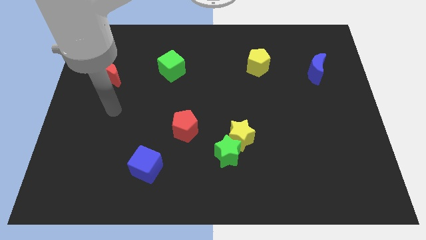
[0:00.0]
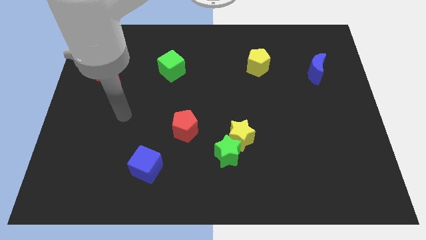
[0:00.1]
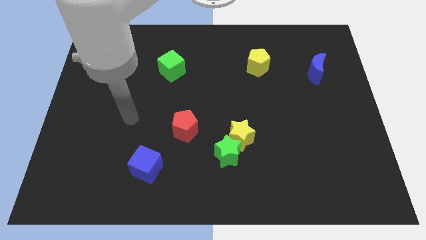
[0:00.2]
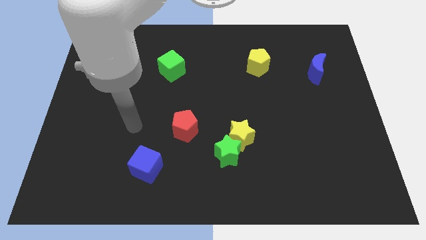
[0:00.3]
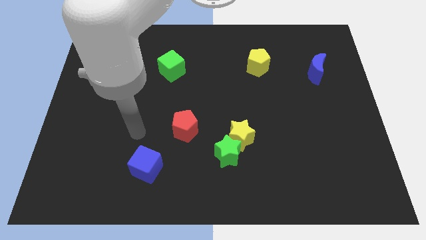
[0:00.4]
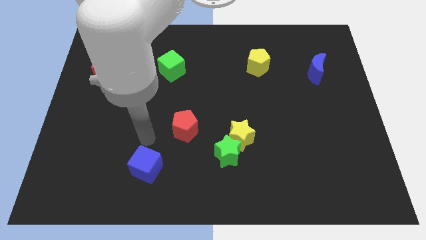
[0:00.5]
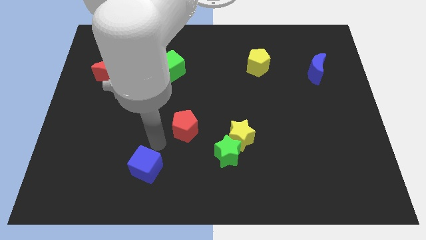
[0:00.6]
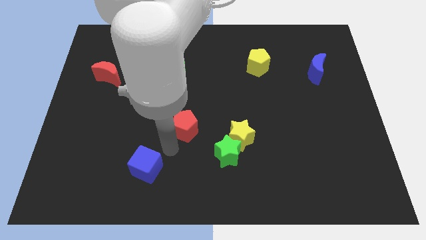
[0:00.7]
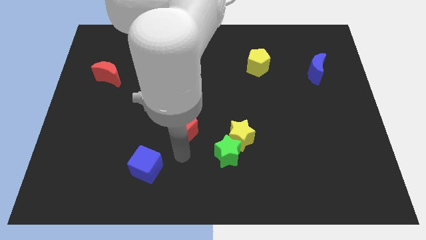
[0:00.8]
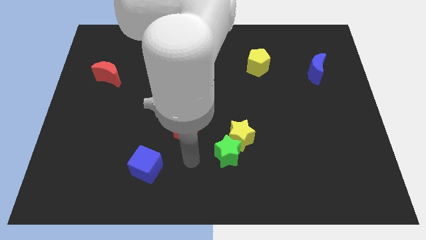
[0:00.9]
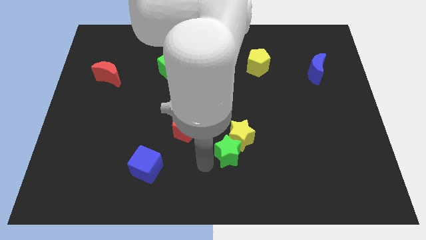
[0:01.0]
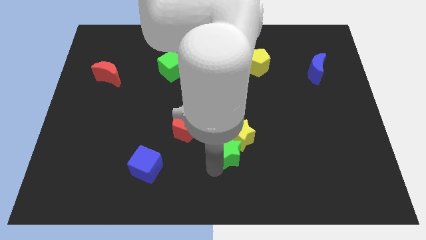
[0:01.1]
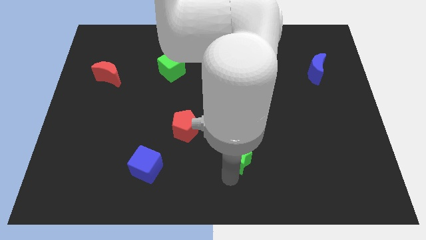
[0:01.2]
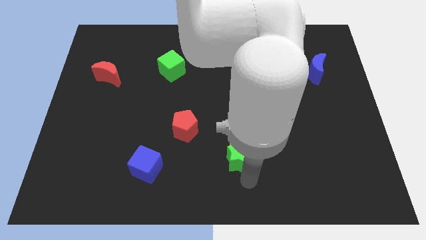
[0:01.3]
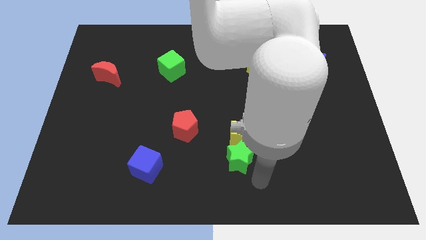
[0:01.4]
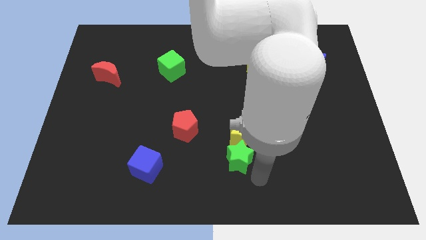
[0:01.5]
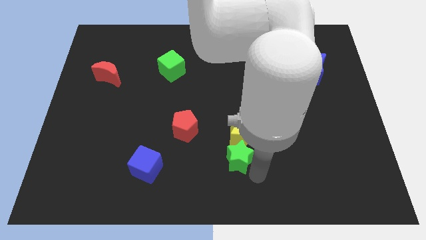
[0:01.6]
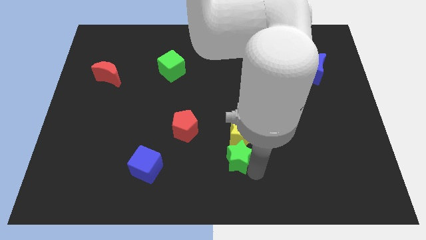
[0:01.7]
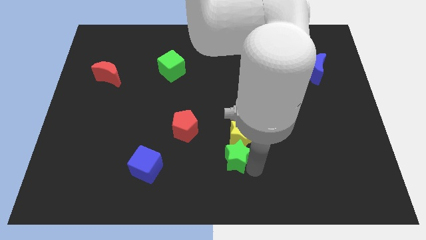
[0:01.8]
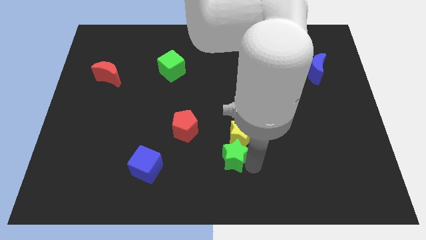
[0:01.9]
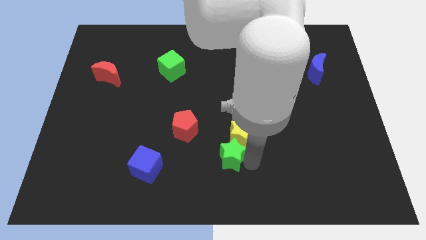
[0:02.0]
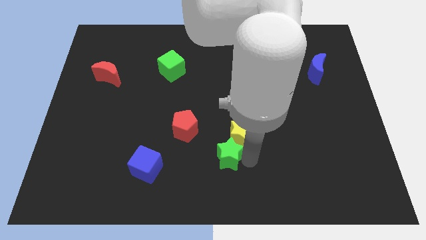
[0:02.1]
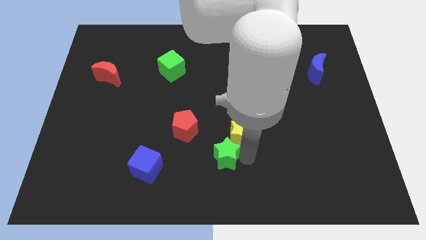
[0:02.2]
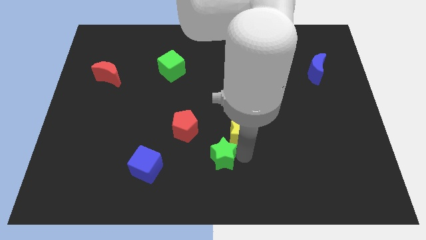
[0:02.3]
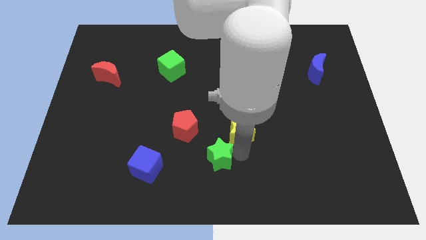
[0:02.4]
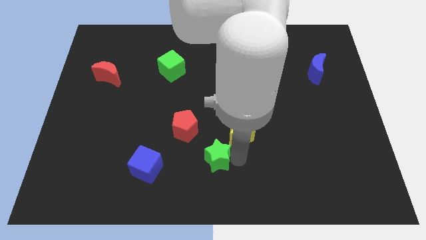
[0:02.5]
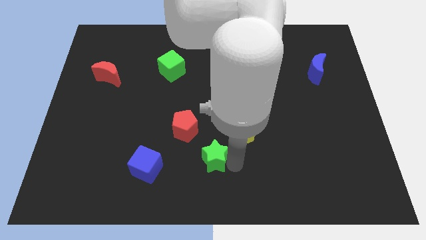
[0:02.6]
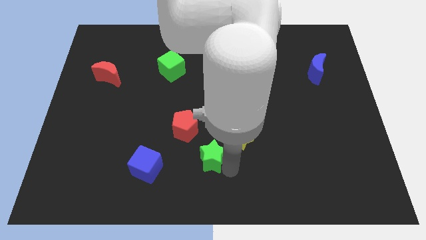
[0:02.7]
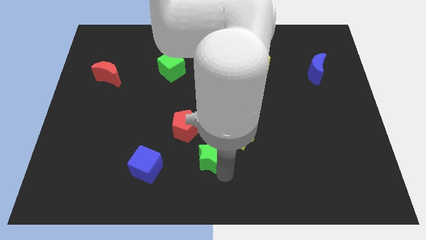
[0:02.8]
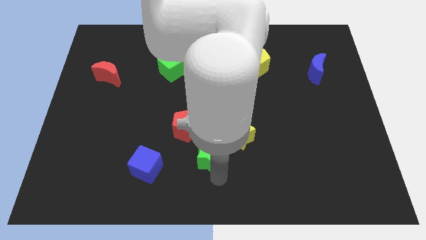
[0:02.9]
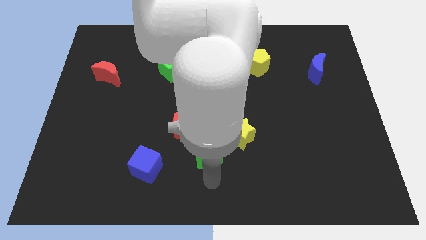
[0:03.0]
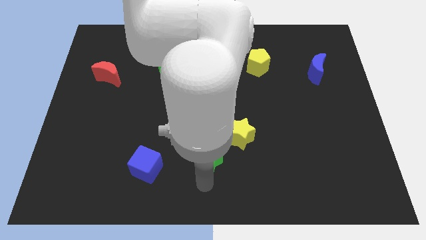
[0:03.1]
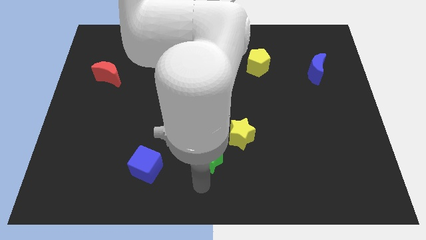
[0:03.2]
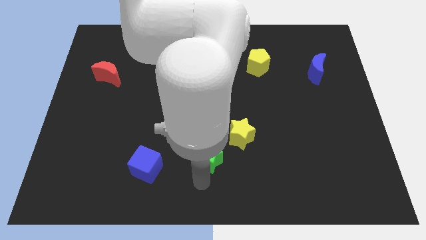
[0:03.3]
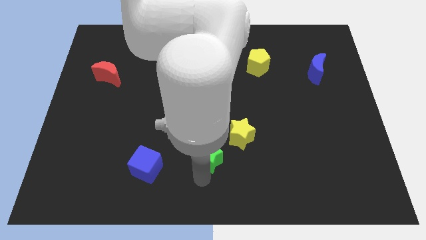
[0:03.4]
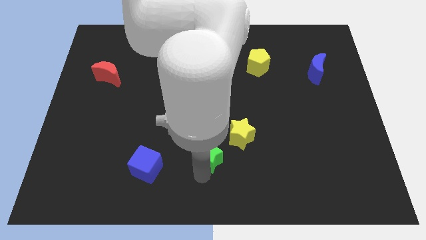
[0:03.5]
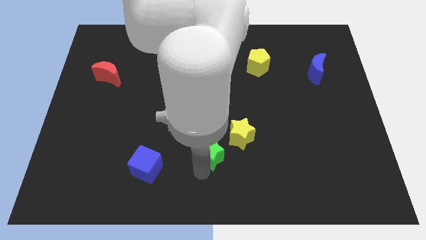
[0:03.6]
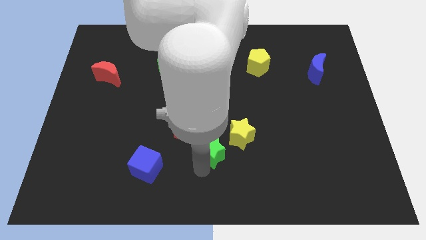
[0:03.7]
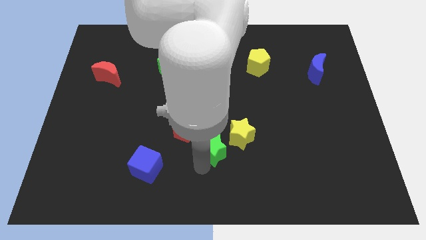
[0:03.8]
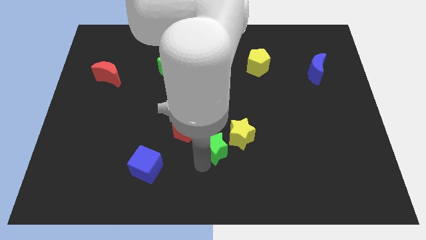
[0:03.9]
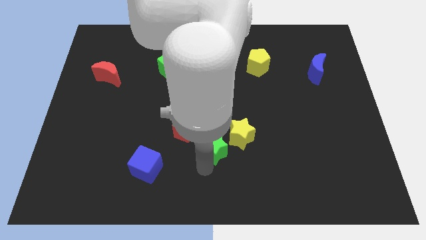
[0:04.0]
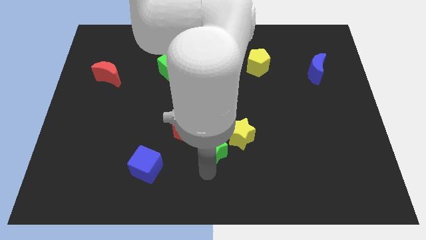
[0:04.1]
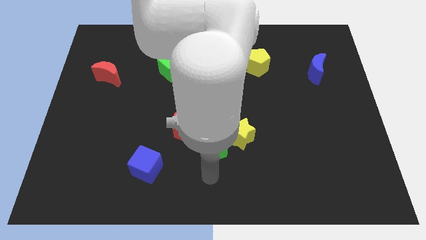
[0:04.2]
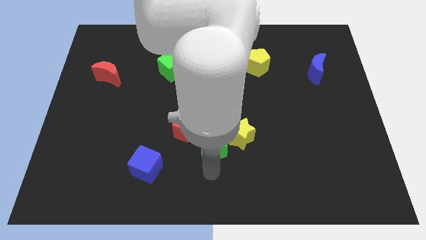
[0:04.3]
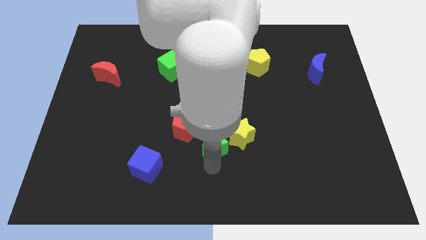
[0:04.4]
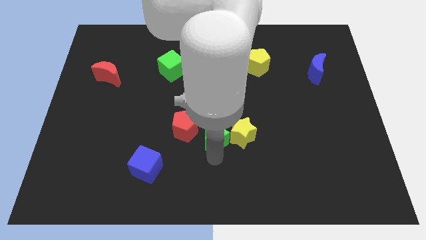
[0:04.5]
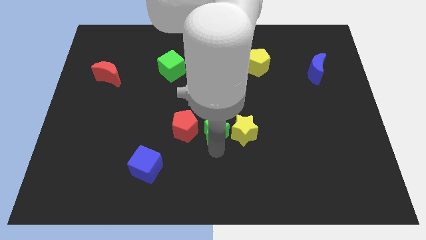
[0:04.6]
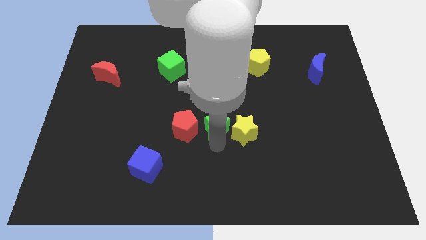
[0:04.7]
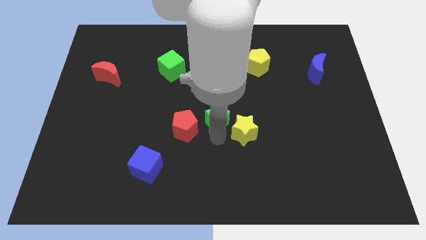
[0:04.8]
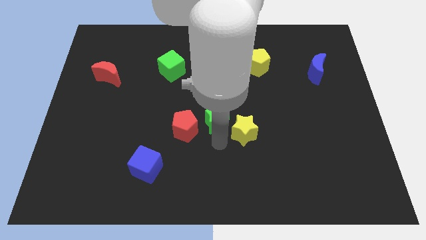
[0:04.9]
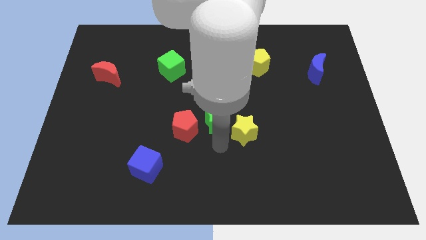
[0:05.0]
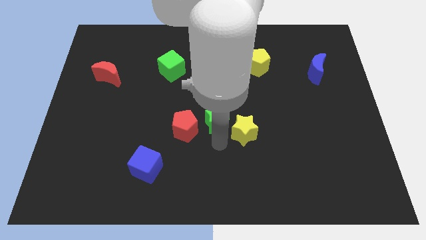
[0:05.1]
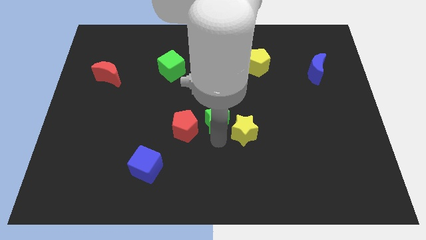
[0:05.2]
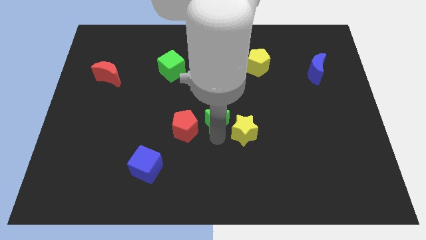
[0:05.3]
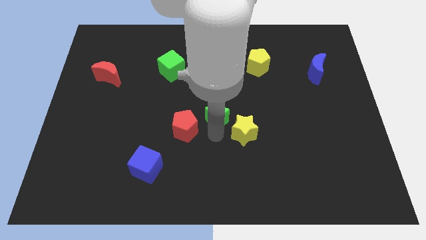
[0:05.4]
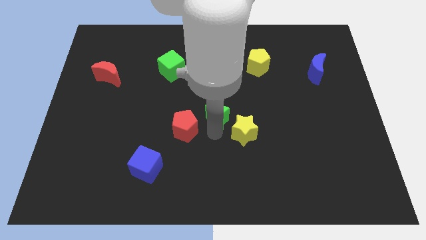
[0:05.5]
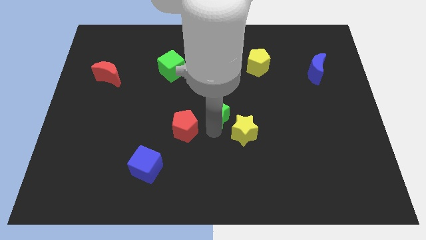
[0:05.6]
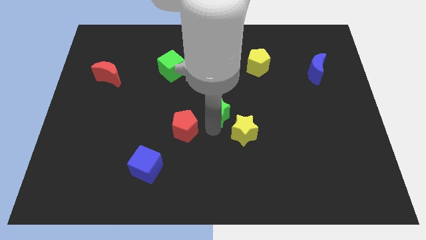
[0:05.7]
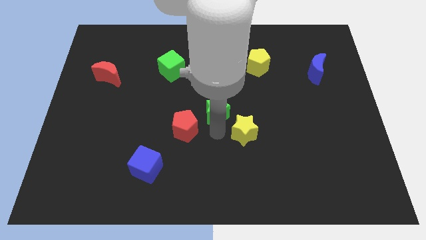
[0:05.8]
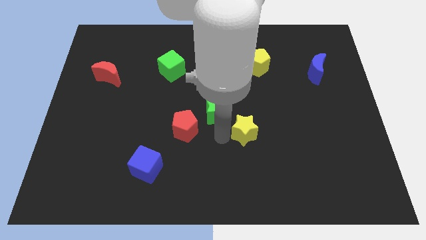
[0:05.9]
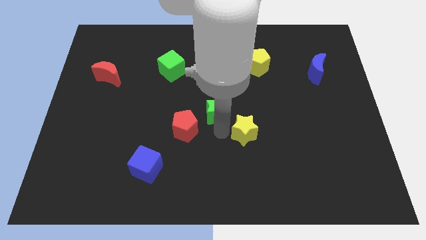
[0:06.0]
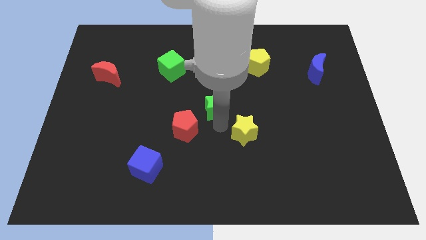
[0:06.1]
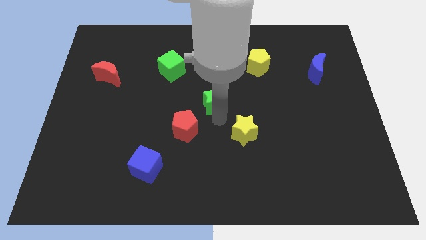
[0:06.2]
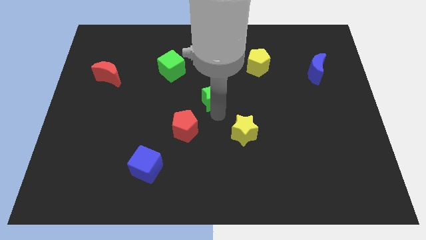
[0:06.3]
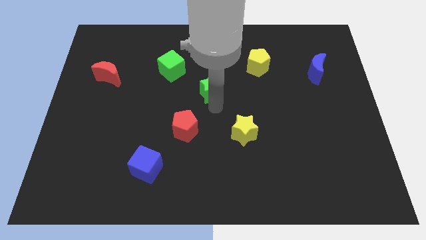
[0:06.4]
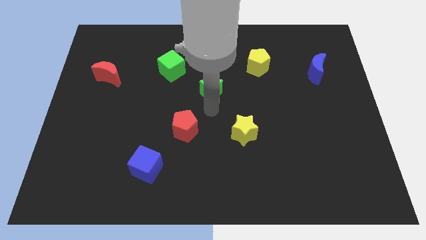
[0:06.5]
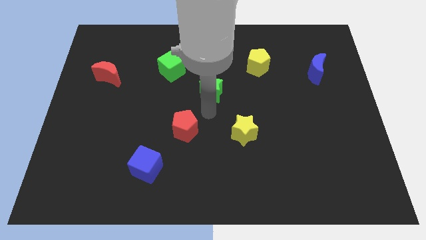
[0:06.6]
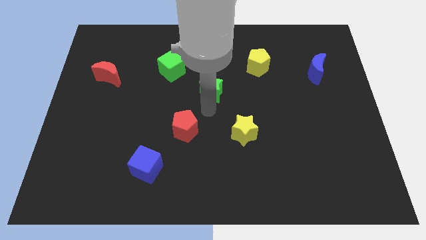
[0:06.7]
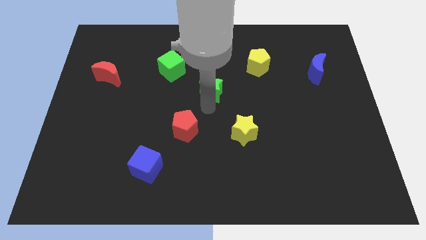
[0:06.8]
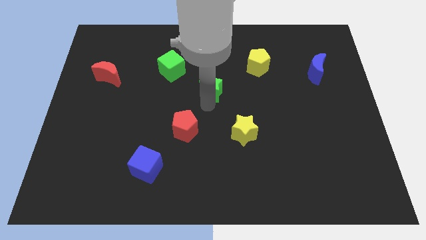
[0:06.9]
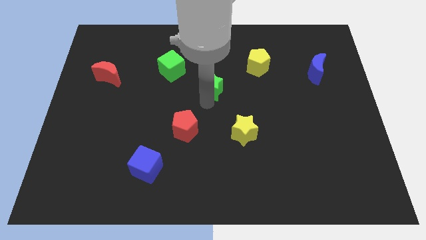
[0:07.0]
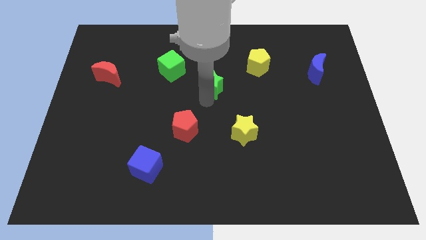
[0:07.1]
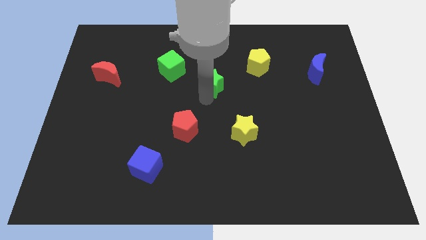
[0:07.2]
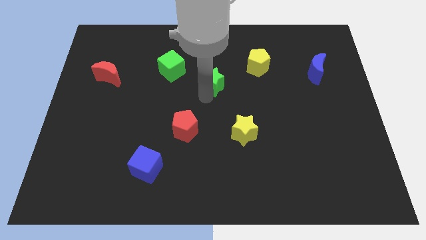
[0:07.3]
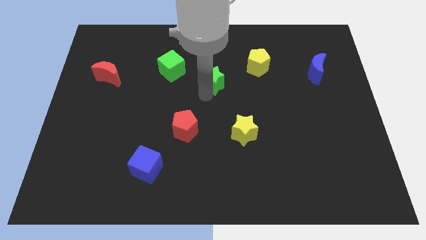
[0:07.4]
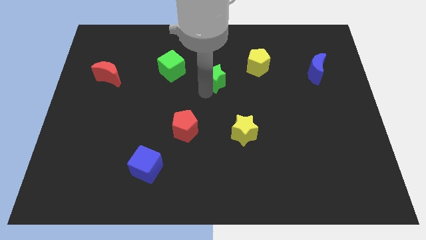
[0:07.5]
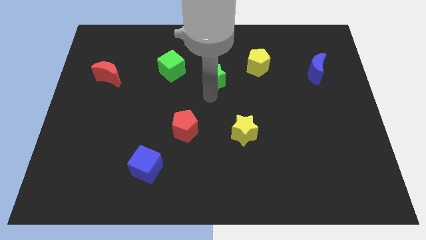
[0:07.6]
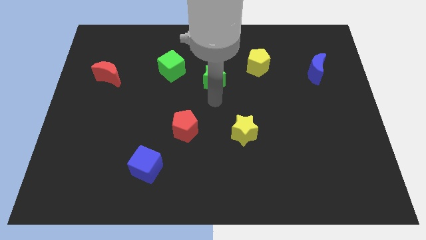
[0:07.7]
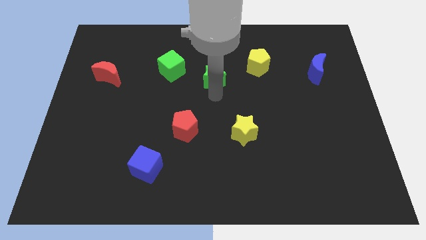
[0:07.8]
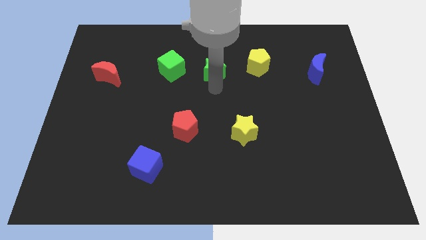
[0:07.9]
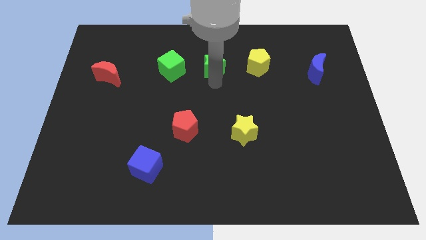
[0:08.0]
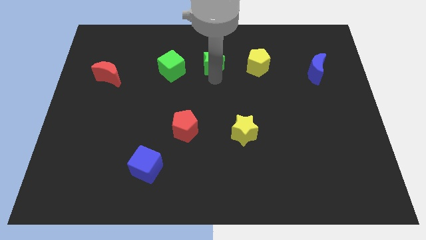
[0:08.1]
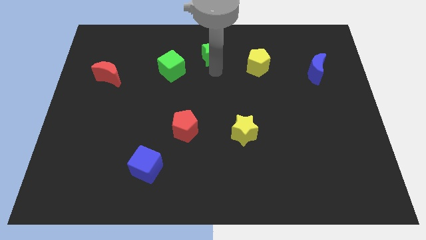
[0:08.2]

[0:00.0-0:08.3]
move the green star to the towards your base
